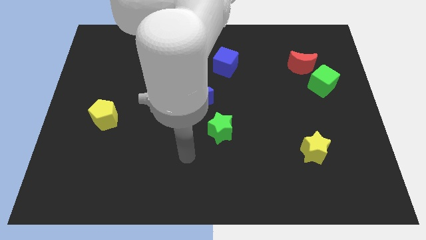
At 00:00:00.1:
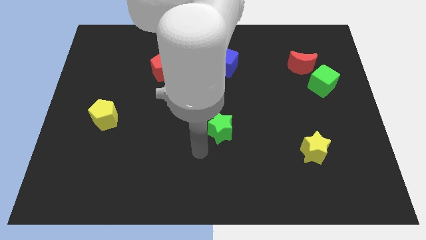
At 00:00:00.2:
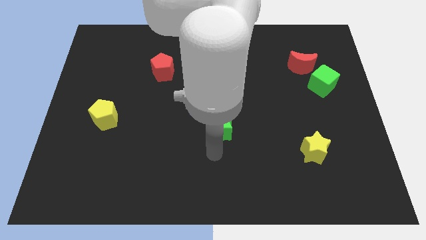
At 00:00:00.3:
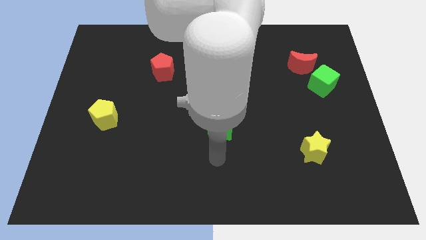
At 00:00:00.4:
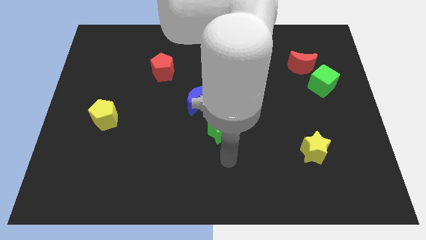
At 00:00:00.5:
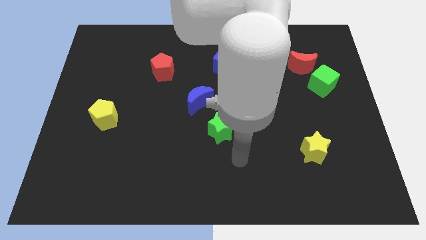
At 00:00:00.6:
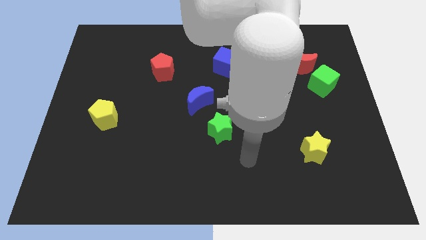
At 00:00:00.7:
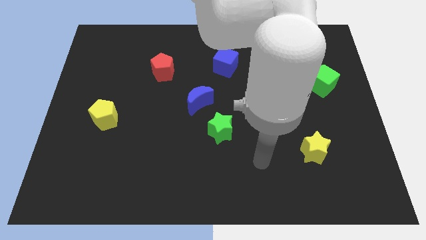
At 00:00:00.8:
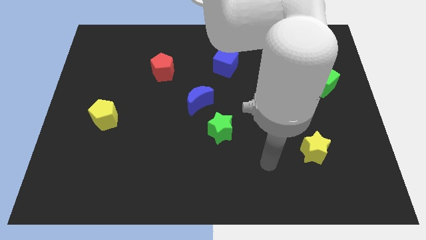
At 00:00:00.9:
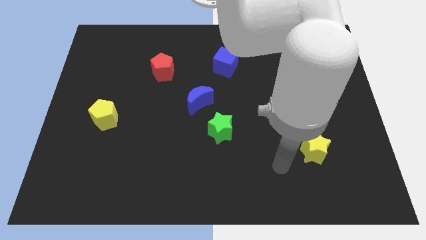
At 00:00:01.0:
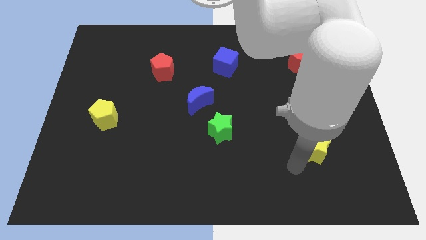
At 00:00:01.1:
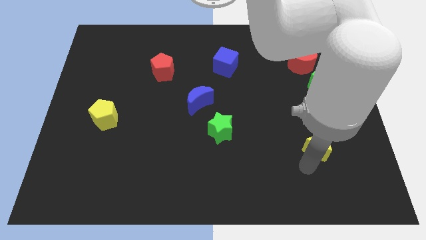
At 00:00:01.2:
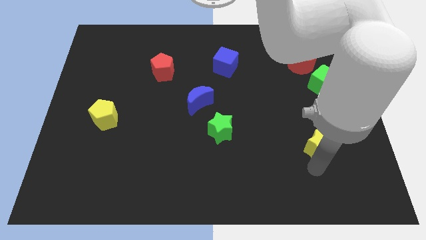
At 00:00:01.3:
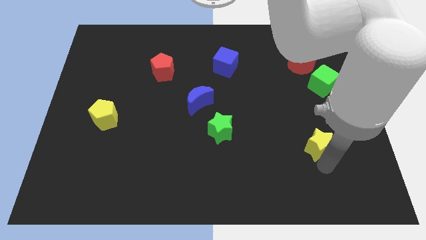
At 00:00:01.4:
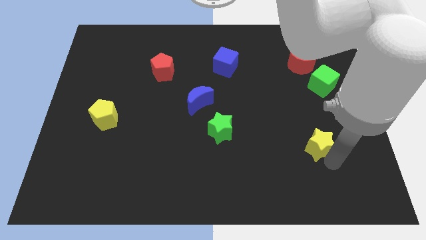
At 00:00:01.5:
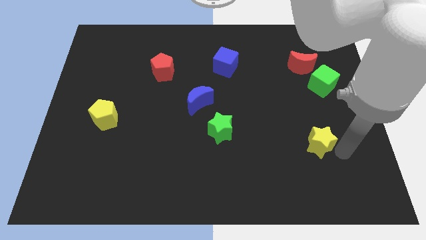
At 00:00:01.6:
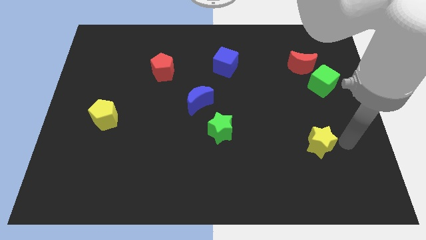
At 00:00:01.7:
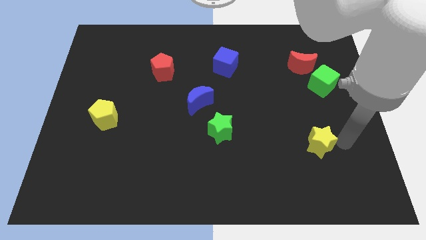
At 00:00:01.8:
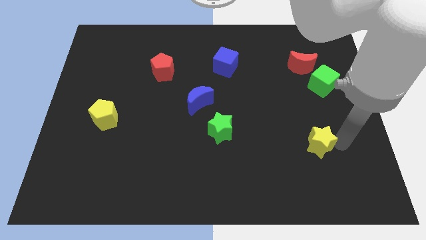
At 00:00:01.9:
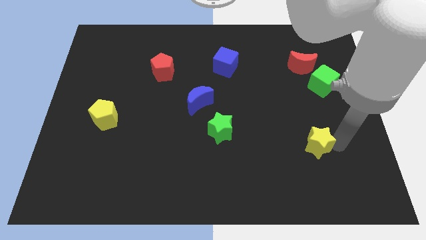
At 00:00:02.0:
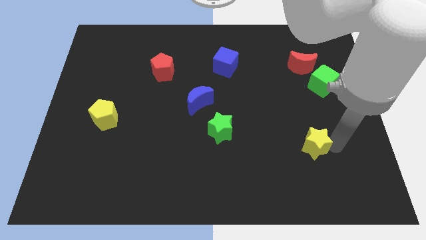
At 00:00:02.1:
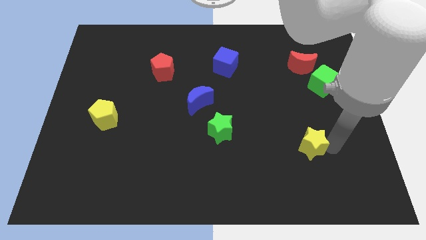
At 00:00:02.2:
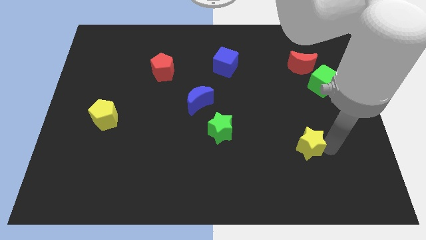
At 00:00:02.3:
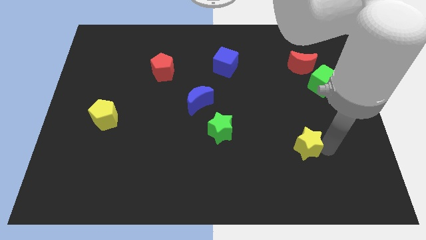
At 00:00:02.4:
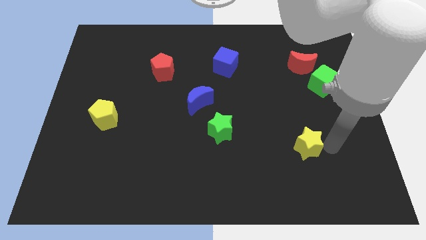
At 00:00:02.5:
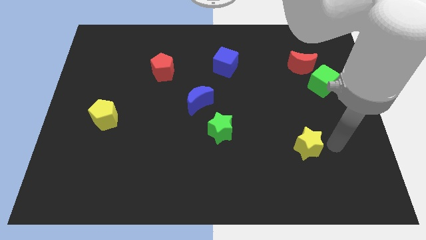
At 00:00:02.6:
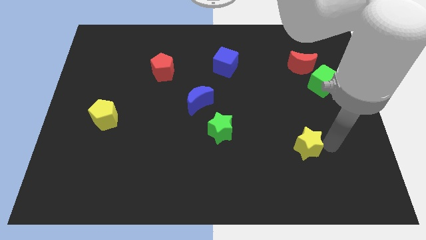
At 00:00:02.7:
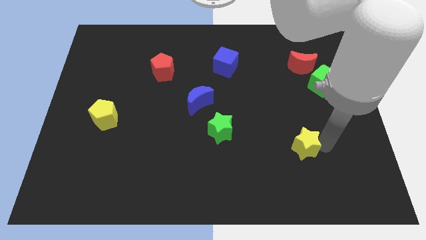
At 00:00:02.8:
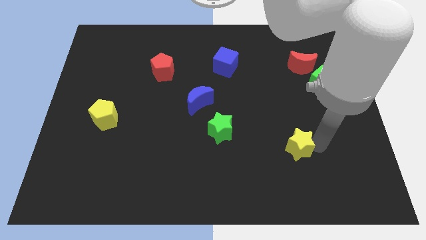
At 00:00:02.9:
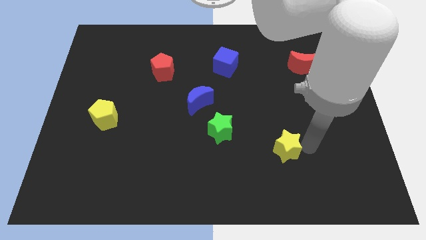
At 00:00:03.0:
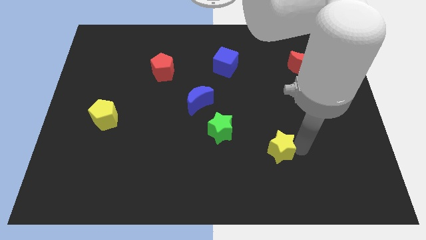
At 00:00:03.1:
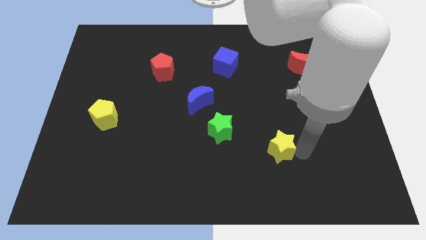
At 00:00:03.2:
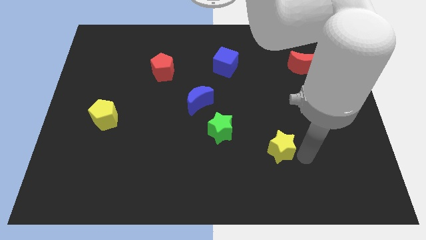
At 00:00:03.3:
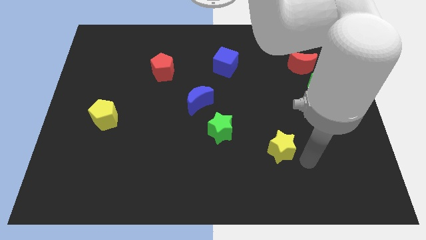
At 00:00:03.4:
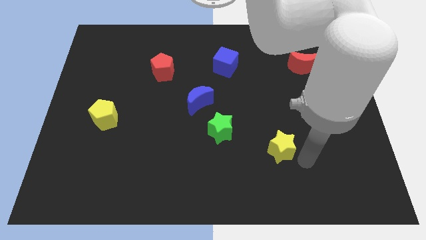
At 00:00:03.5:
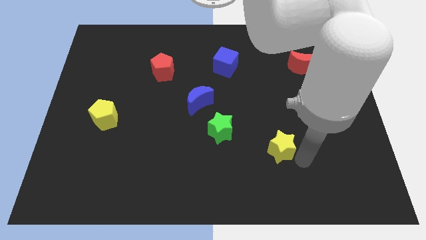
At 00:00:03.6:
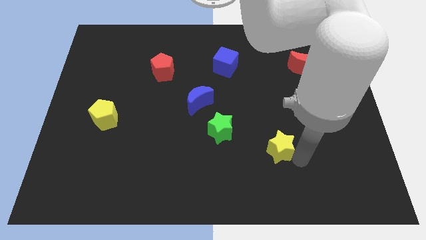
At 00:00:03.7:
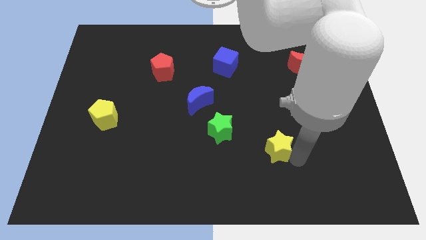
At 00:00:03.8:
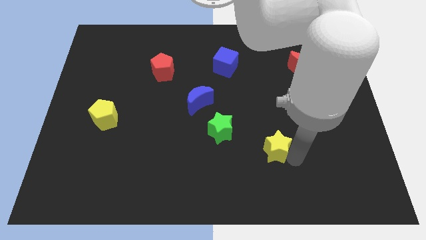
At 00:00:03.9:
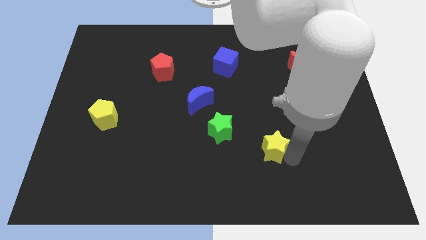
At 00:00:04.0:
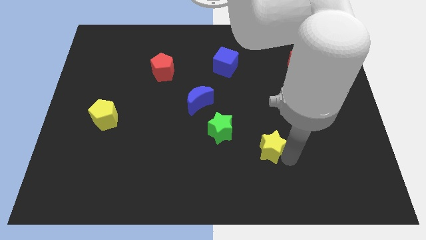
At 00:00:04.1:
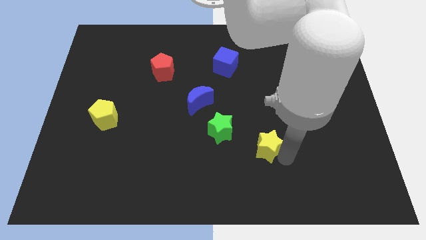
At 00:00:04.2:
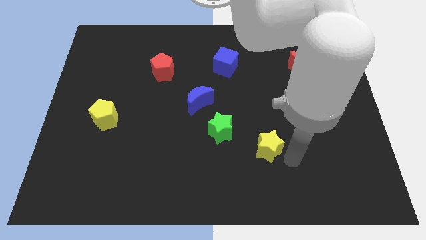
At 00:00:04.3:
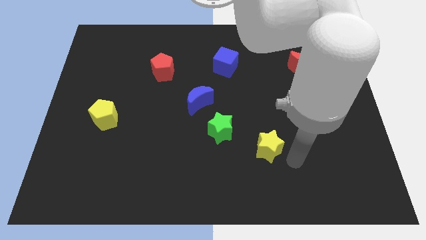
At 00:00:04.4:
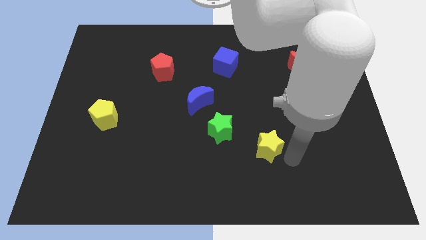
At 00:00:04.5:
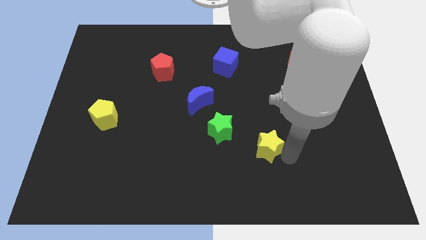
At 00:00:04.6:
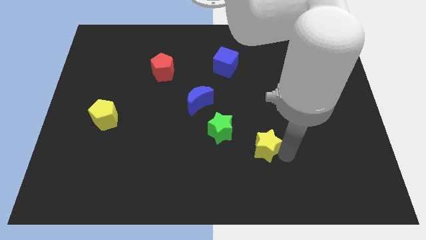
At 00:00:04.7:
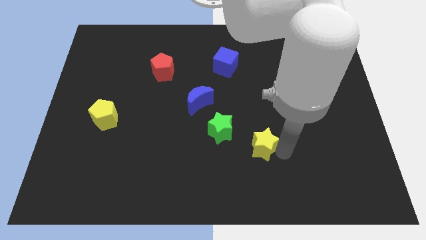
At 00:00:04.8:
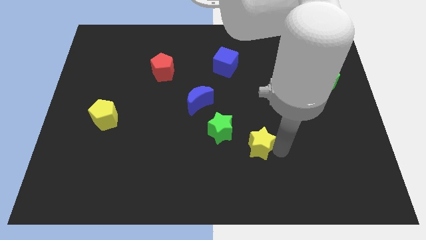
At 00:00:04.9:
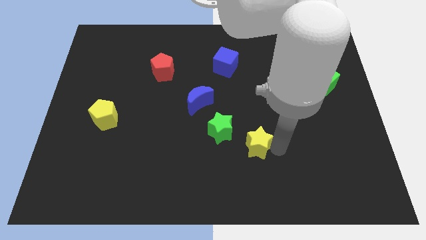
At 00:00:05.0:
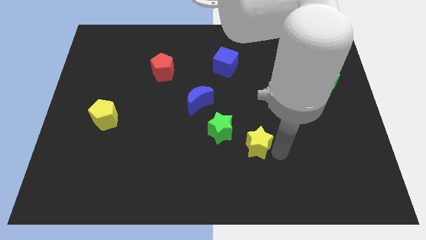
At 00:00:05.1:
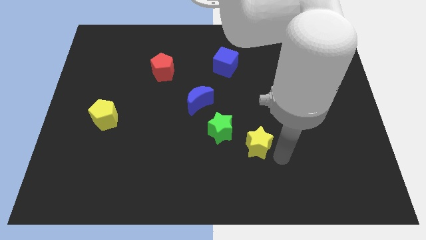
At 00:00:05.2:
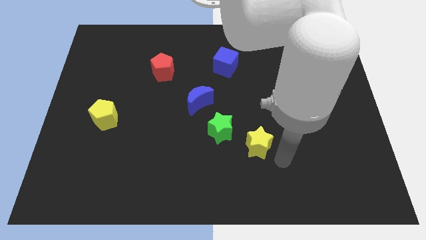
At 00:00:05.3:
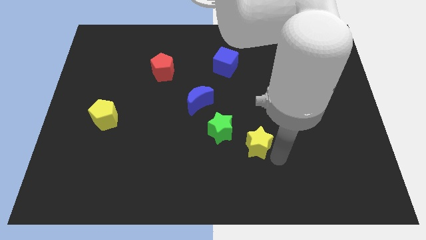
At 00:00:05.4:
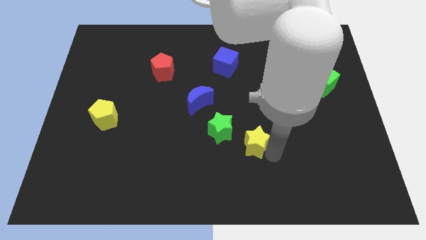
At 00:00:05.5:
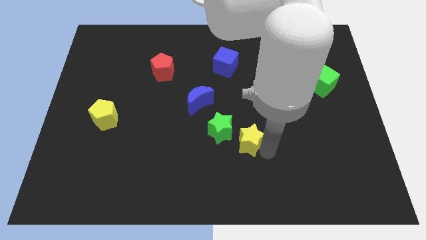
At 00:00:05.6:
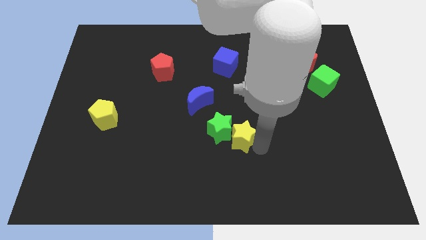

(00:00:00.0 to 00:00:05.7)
move the yellow star towards the green star

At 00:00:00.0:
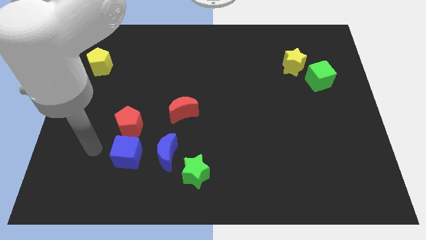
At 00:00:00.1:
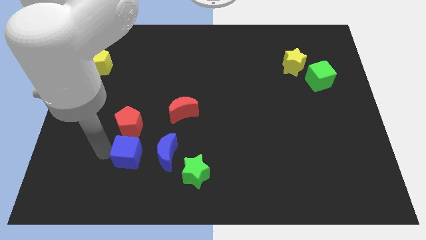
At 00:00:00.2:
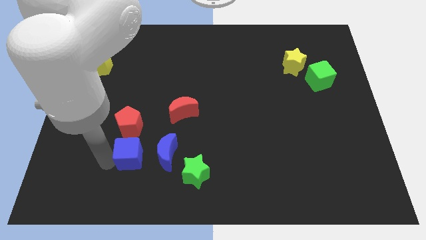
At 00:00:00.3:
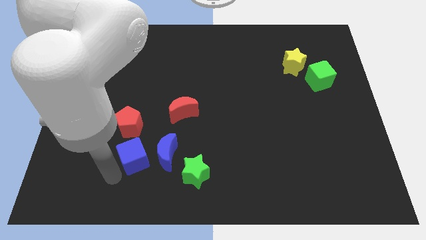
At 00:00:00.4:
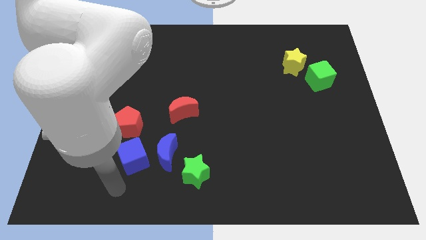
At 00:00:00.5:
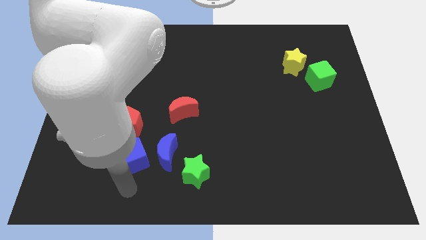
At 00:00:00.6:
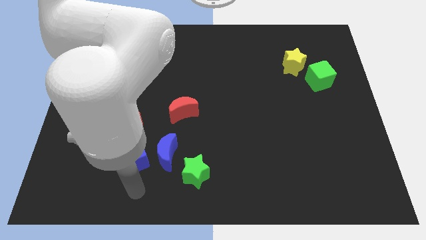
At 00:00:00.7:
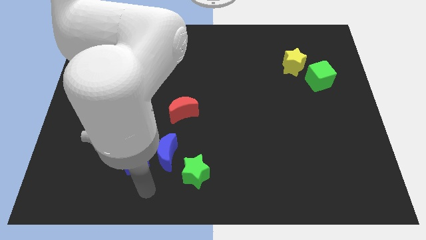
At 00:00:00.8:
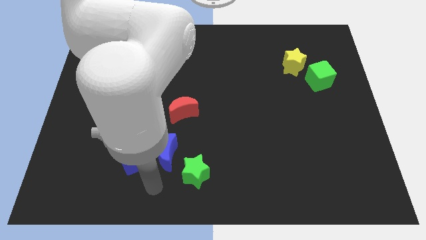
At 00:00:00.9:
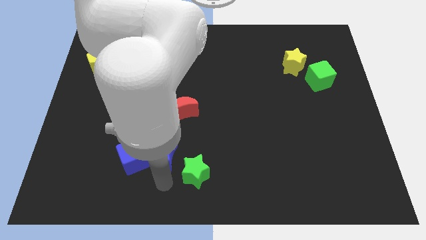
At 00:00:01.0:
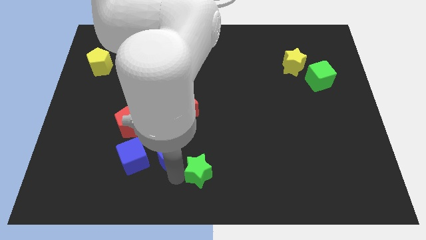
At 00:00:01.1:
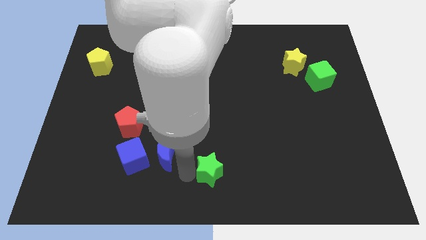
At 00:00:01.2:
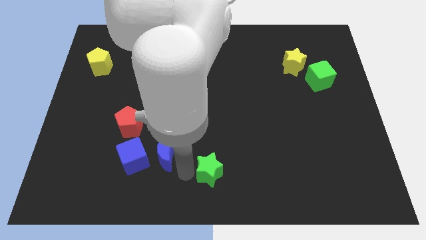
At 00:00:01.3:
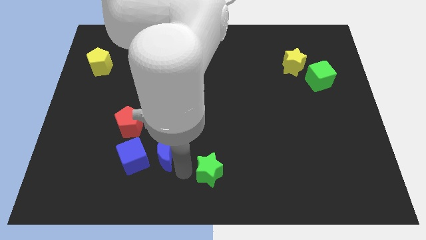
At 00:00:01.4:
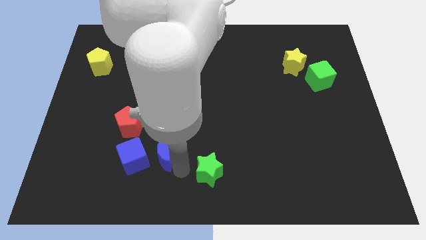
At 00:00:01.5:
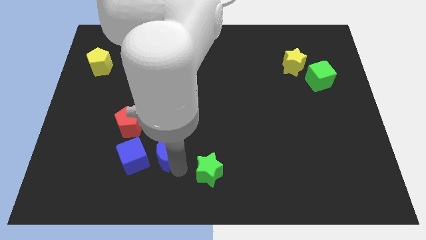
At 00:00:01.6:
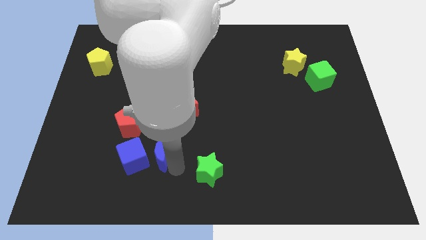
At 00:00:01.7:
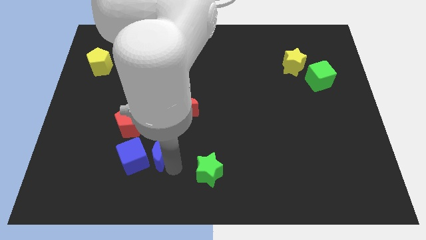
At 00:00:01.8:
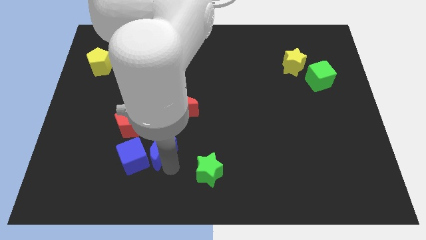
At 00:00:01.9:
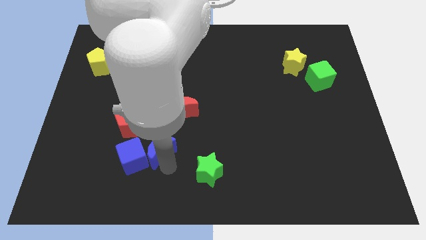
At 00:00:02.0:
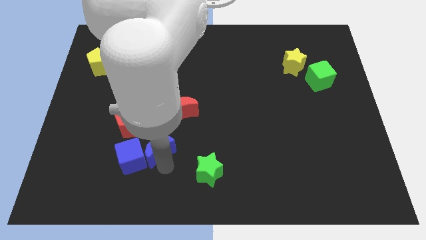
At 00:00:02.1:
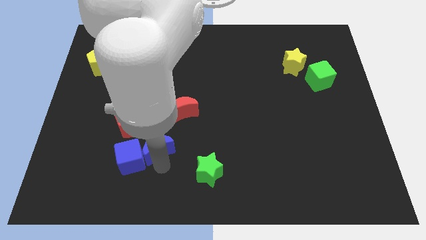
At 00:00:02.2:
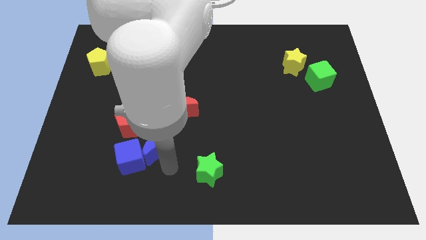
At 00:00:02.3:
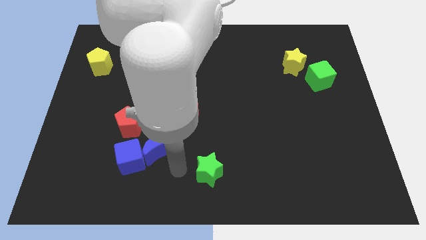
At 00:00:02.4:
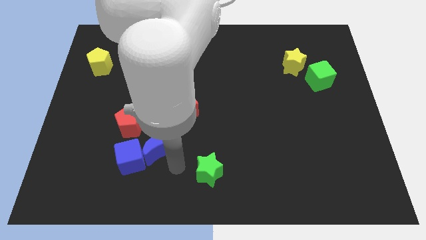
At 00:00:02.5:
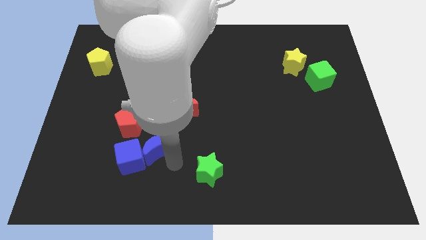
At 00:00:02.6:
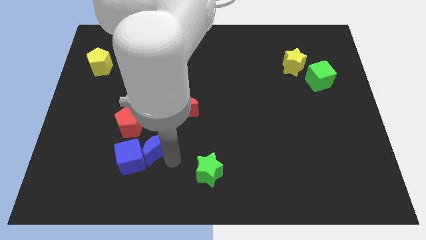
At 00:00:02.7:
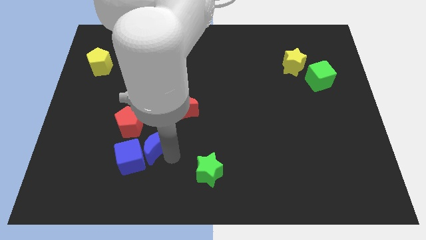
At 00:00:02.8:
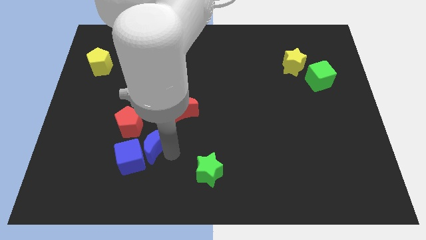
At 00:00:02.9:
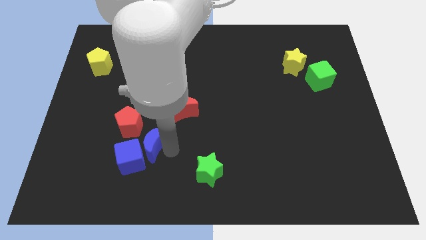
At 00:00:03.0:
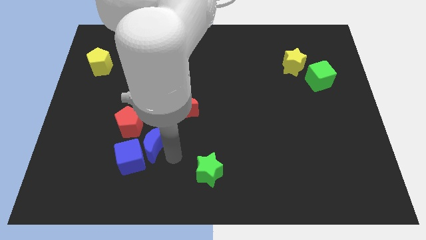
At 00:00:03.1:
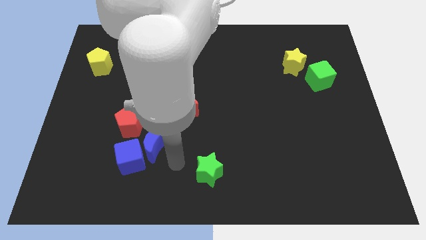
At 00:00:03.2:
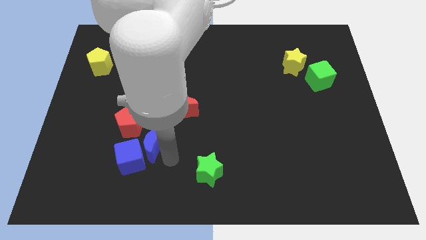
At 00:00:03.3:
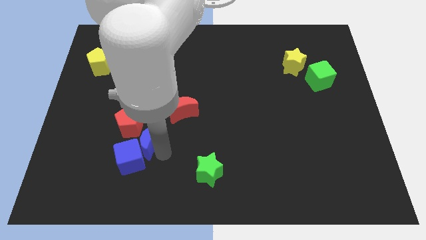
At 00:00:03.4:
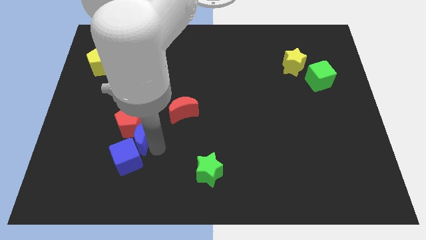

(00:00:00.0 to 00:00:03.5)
put the blue moon to the red pentagon
